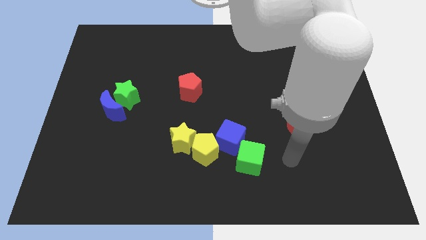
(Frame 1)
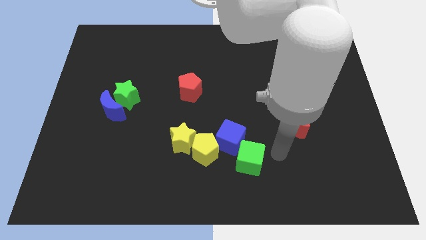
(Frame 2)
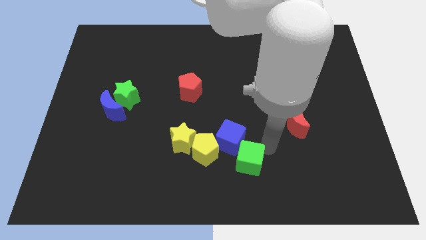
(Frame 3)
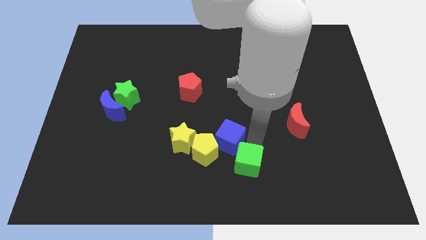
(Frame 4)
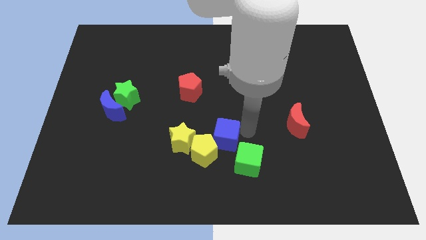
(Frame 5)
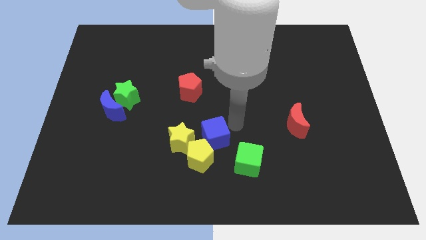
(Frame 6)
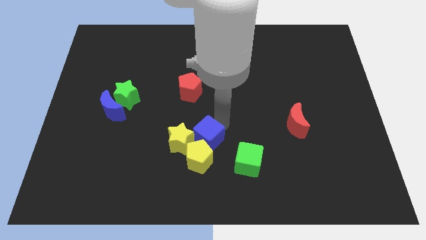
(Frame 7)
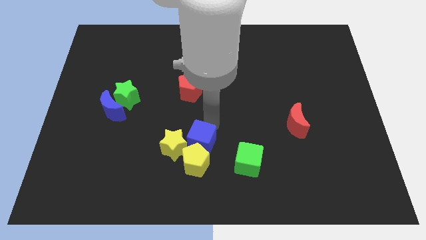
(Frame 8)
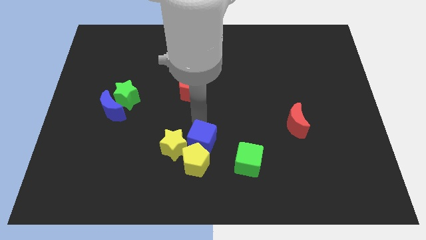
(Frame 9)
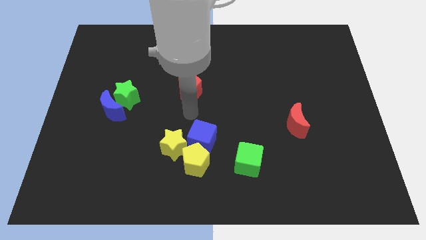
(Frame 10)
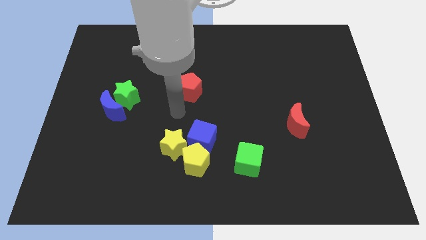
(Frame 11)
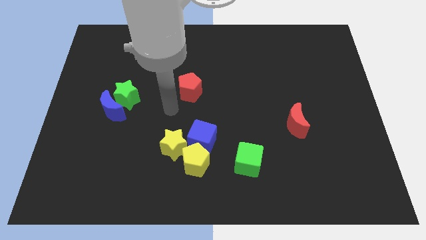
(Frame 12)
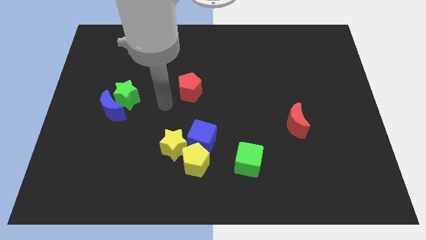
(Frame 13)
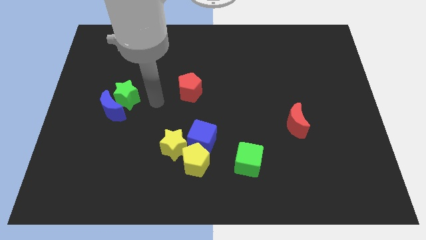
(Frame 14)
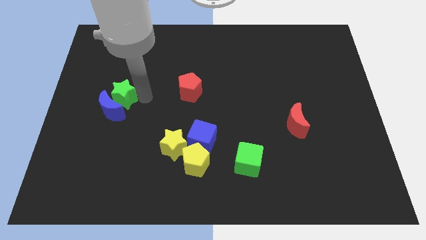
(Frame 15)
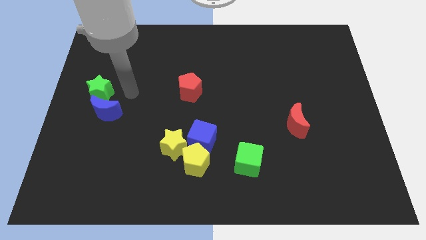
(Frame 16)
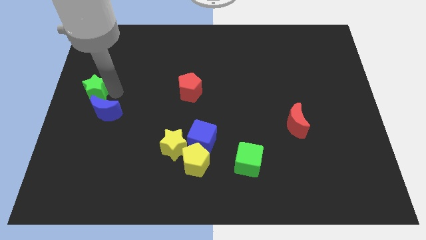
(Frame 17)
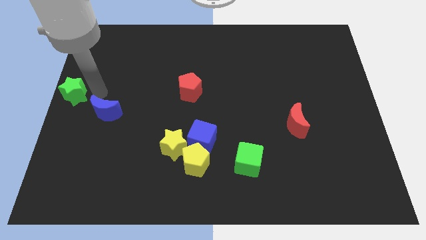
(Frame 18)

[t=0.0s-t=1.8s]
pull the blue moon apart from the green star

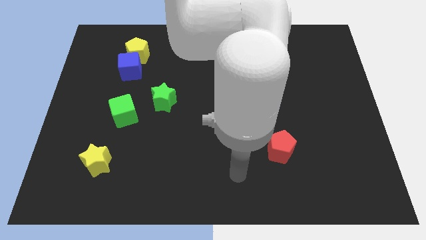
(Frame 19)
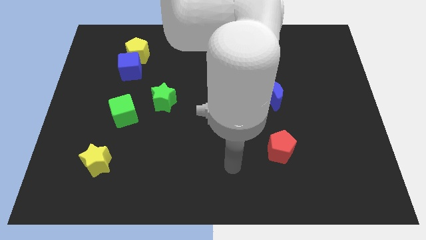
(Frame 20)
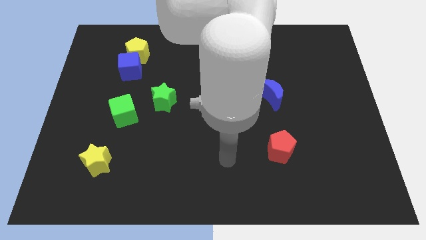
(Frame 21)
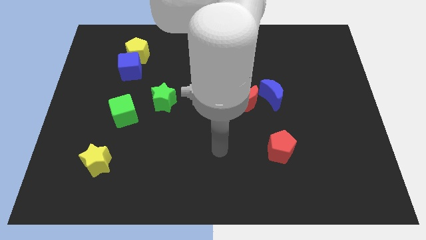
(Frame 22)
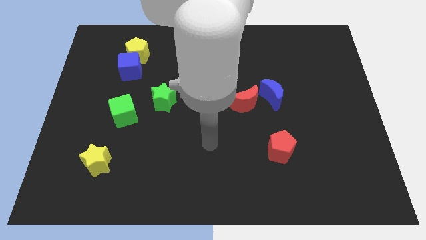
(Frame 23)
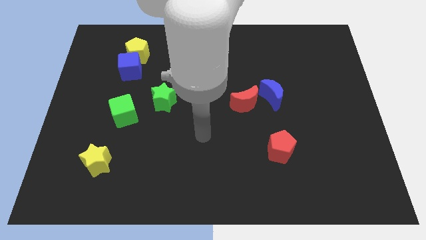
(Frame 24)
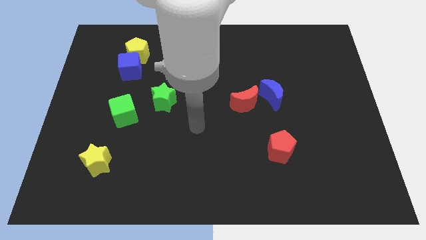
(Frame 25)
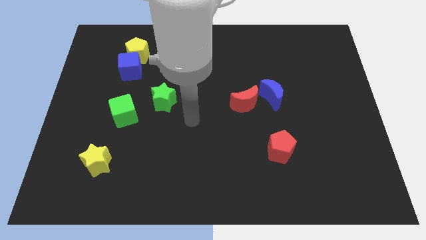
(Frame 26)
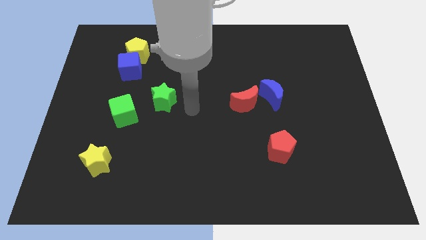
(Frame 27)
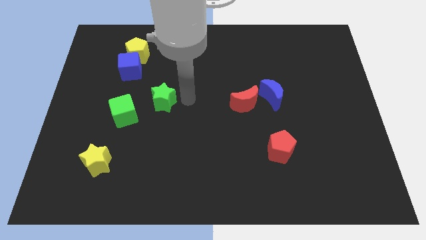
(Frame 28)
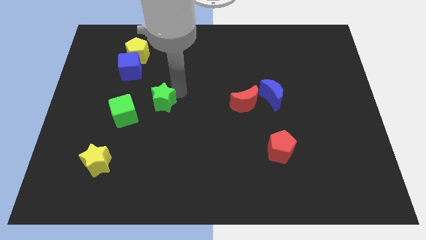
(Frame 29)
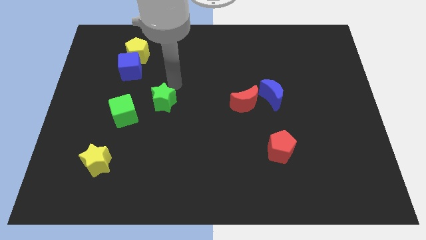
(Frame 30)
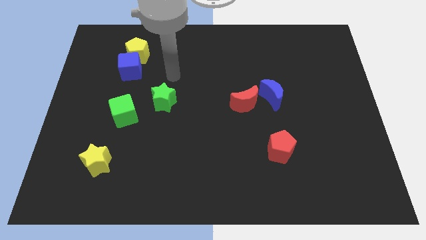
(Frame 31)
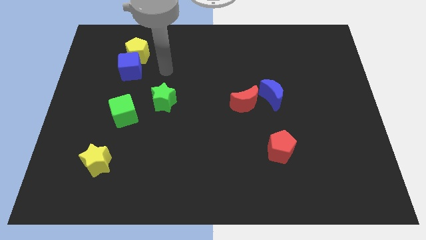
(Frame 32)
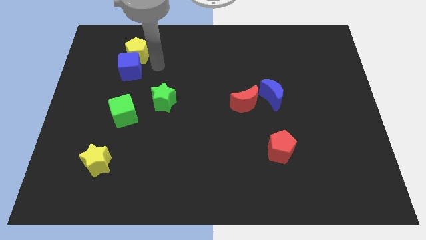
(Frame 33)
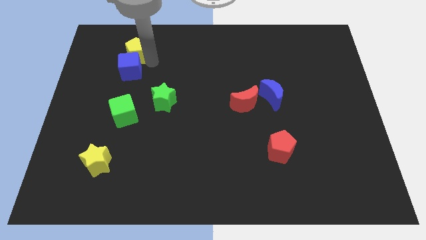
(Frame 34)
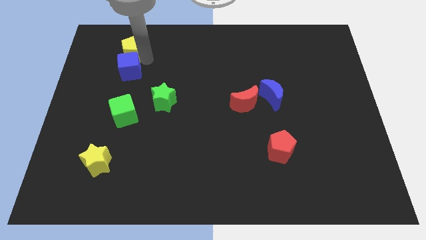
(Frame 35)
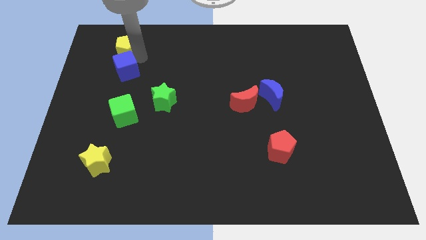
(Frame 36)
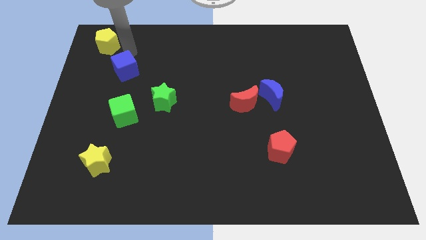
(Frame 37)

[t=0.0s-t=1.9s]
separate the blue cube from the yellow pentagon

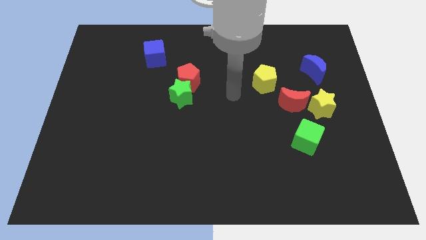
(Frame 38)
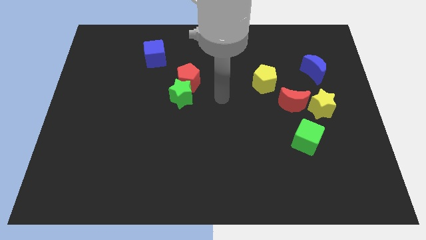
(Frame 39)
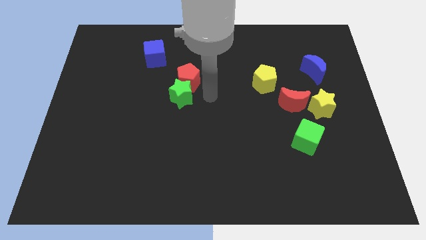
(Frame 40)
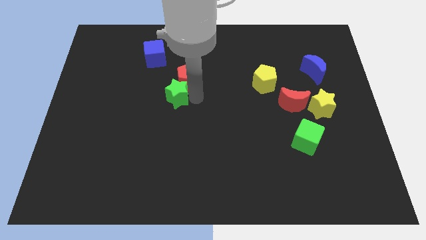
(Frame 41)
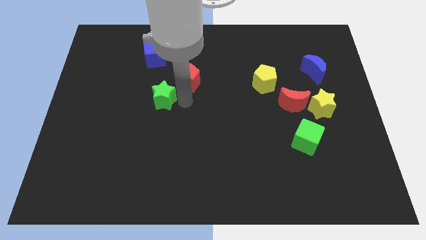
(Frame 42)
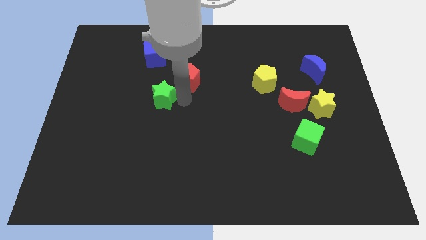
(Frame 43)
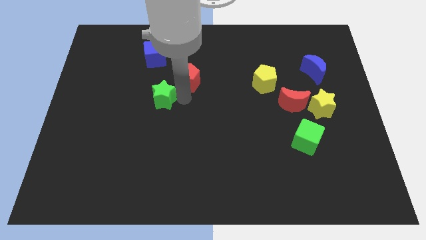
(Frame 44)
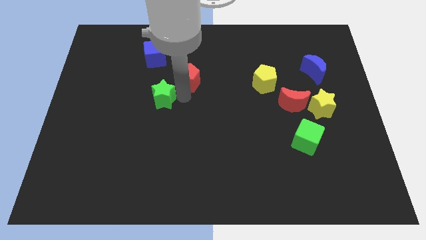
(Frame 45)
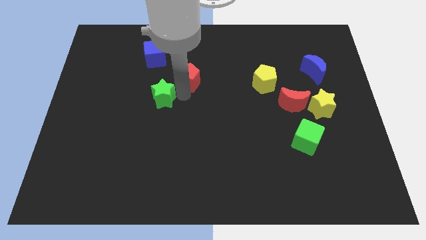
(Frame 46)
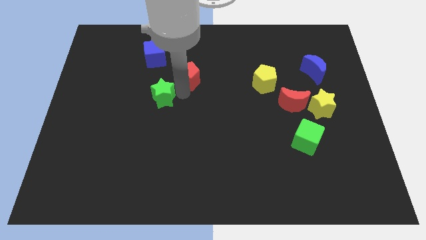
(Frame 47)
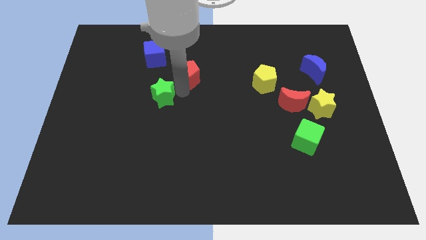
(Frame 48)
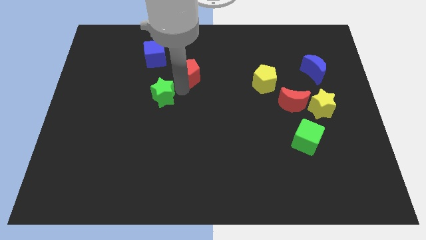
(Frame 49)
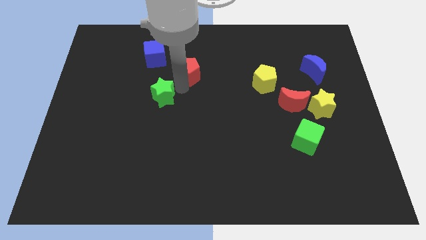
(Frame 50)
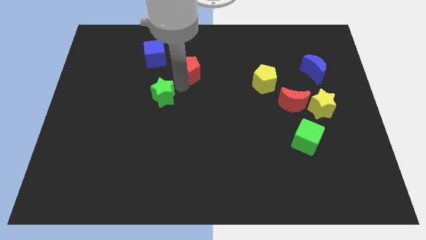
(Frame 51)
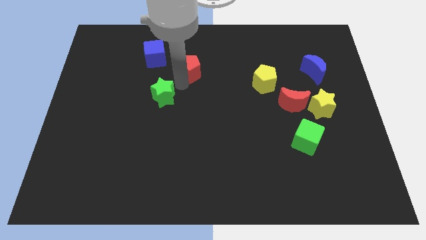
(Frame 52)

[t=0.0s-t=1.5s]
move the red pentagon away from the green star

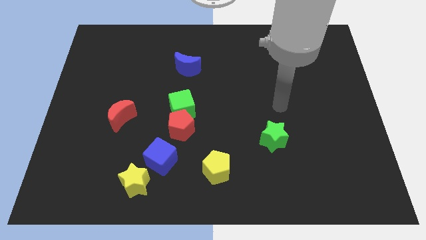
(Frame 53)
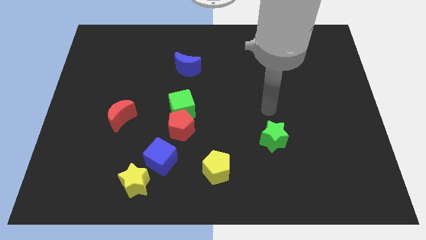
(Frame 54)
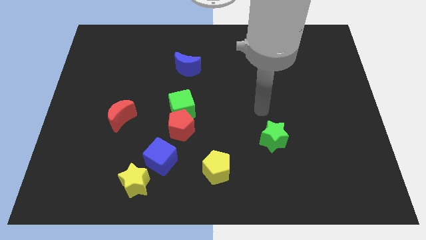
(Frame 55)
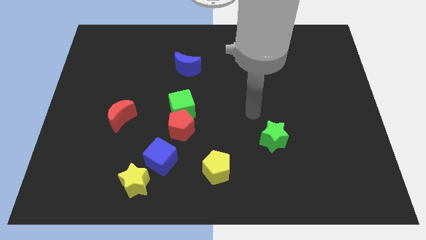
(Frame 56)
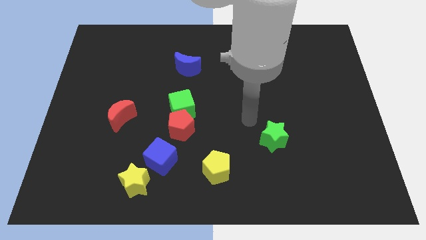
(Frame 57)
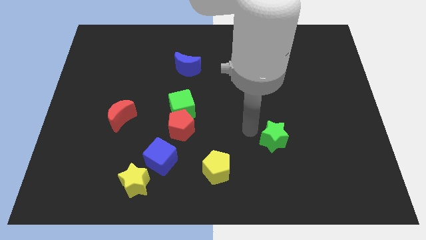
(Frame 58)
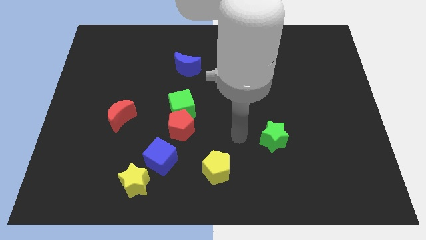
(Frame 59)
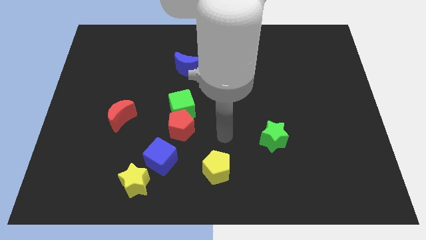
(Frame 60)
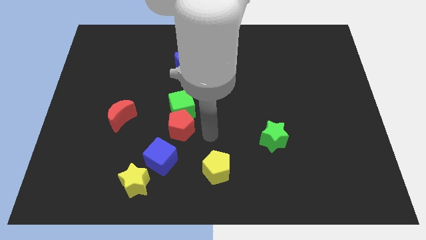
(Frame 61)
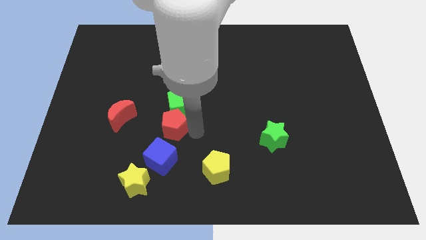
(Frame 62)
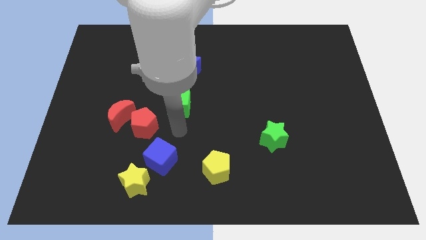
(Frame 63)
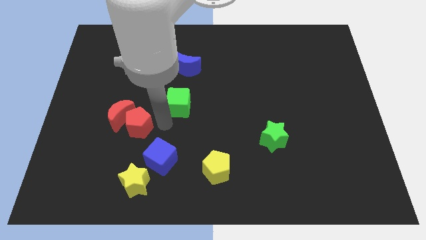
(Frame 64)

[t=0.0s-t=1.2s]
move the green cube away from the red pentagon

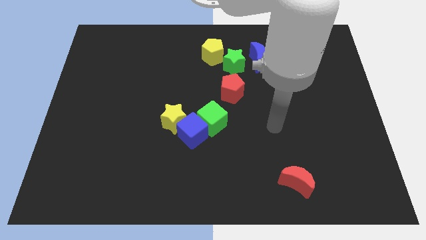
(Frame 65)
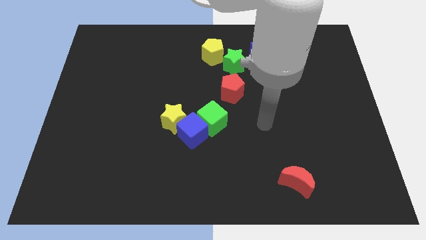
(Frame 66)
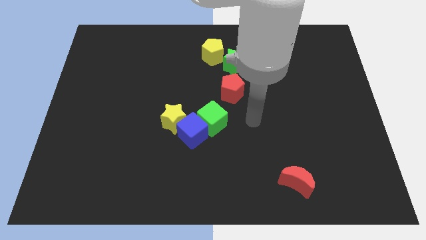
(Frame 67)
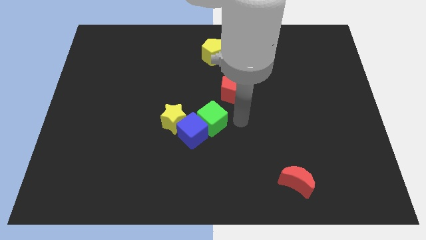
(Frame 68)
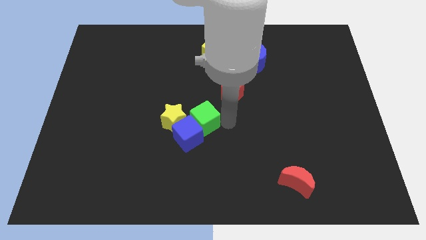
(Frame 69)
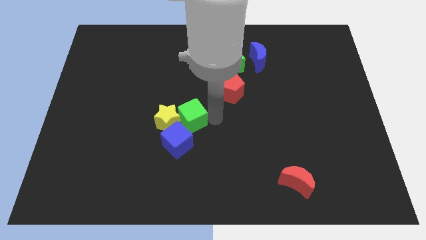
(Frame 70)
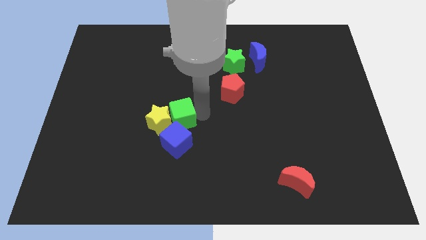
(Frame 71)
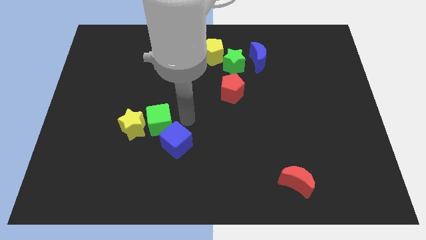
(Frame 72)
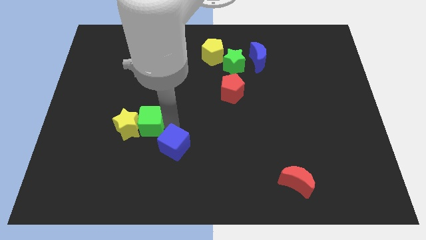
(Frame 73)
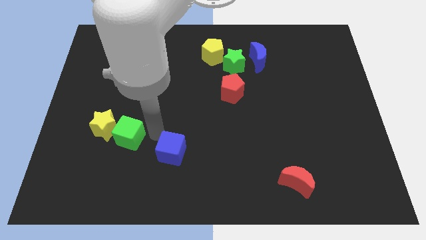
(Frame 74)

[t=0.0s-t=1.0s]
pull the blue cube apart from the green cube and yellow star

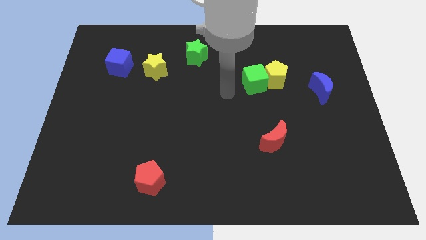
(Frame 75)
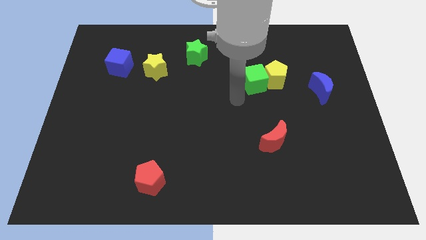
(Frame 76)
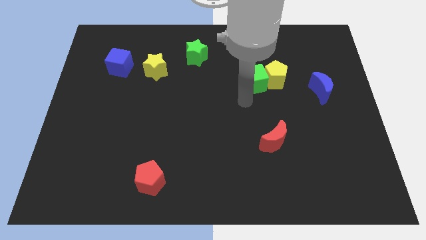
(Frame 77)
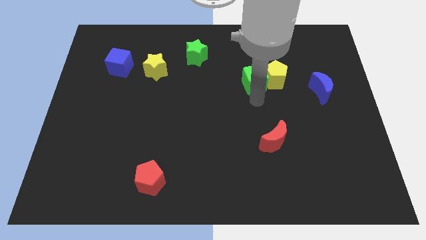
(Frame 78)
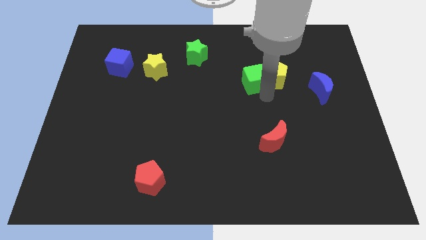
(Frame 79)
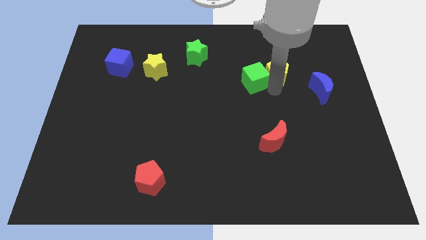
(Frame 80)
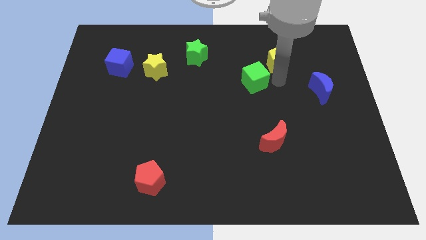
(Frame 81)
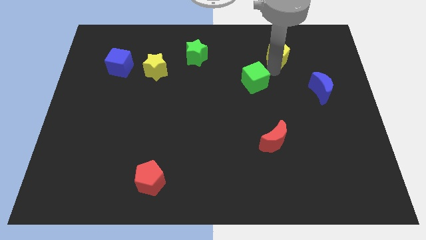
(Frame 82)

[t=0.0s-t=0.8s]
separate the green cube from the yellow pentagon

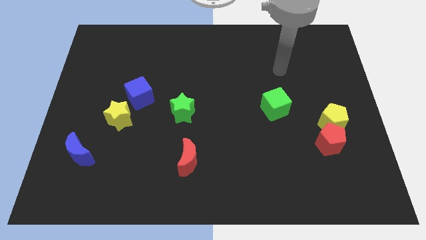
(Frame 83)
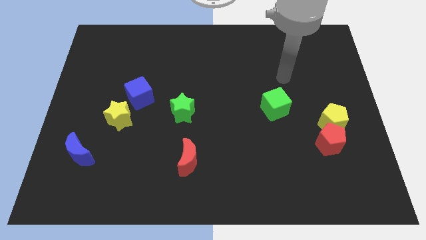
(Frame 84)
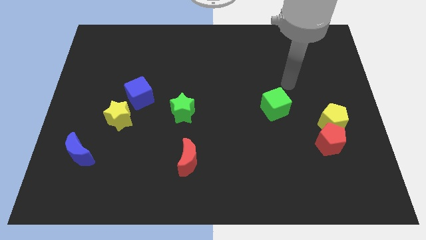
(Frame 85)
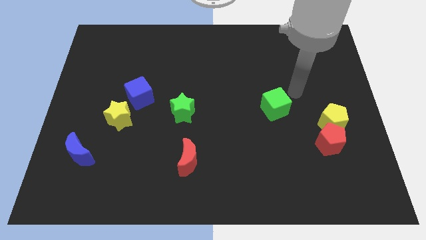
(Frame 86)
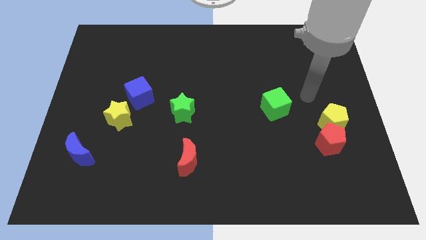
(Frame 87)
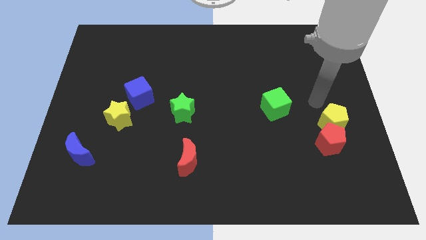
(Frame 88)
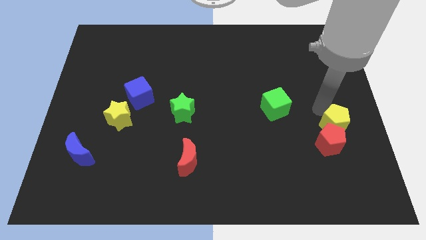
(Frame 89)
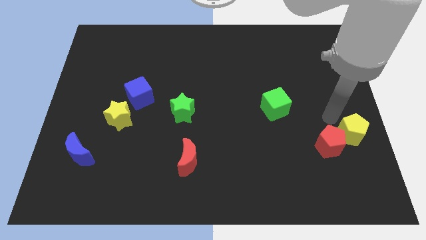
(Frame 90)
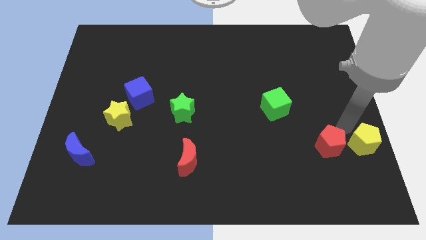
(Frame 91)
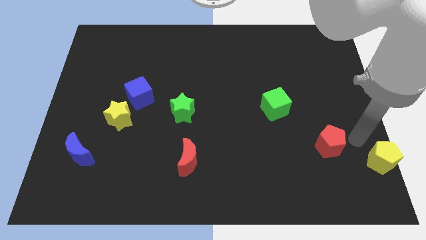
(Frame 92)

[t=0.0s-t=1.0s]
pull the red pentagon apart from the yellow pentagon

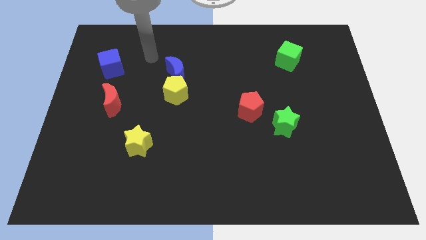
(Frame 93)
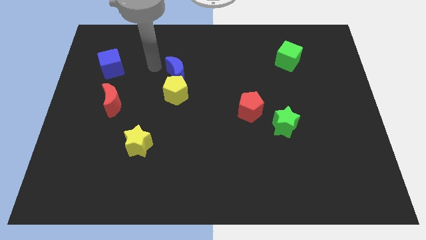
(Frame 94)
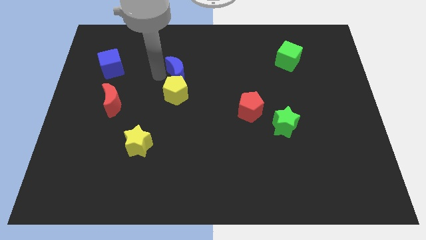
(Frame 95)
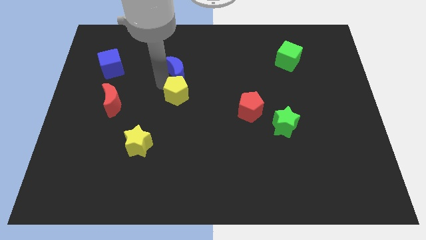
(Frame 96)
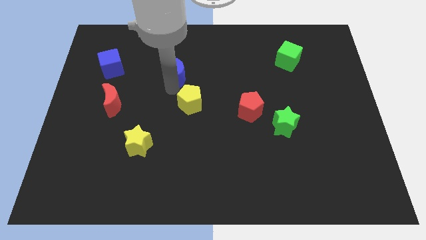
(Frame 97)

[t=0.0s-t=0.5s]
pull the blue moon apart from the yellow pentagon
